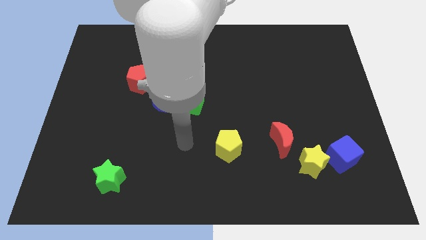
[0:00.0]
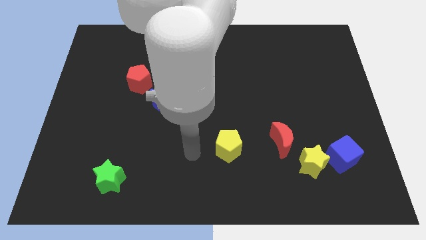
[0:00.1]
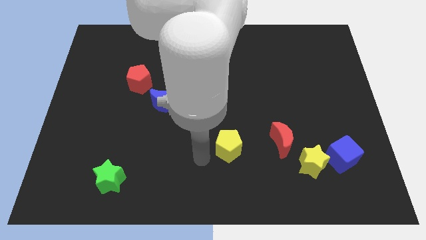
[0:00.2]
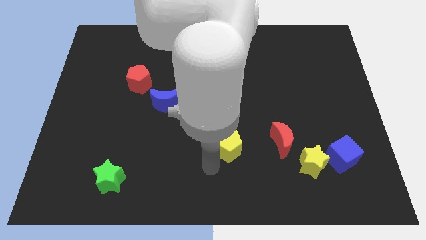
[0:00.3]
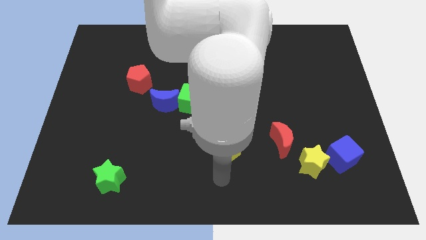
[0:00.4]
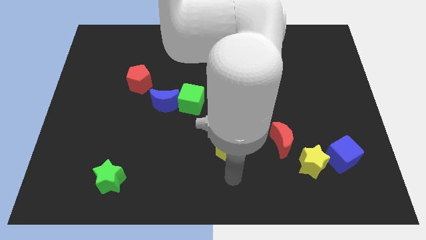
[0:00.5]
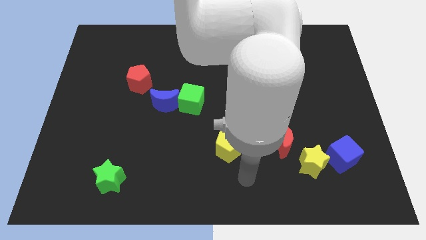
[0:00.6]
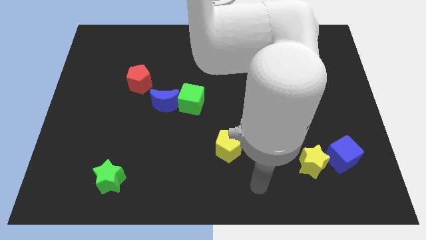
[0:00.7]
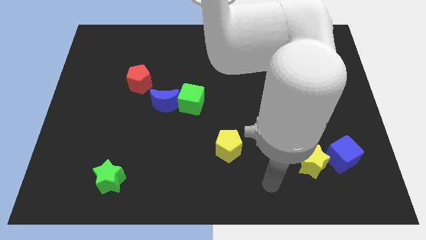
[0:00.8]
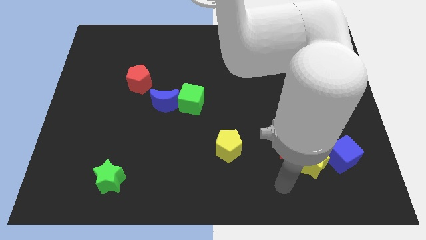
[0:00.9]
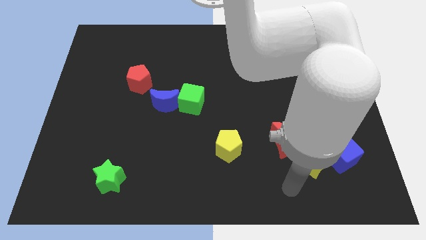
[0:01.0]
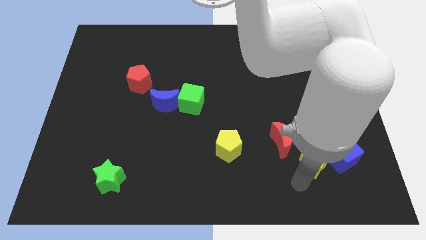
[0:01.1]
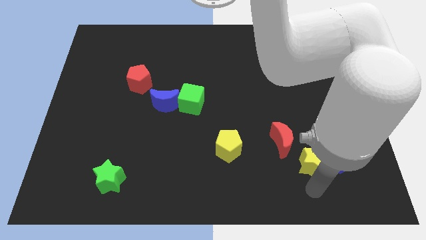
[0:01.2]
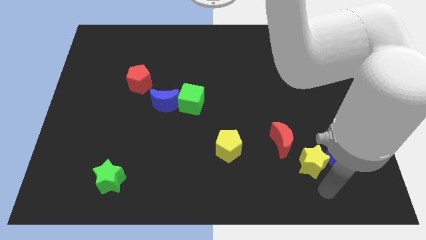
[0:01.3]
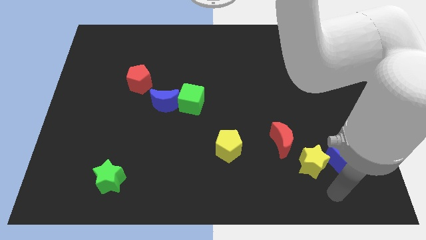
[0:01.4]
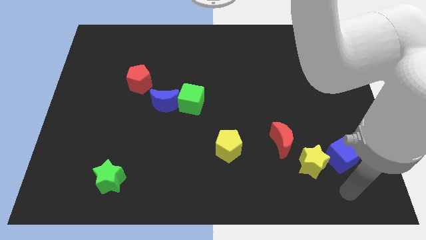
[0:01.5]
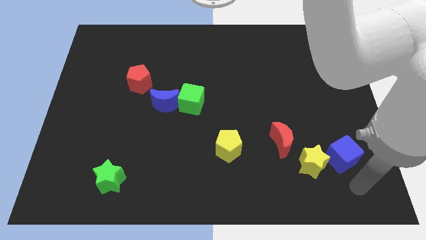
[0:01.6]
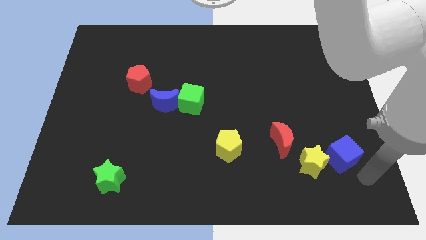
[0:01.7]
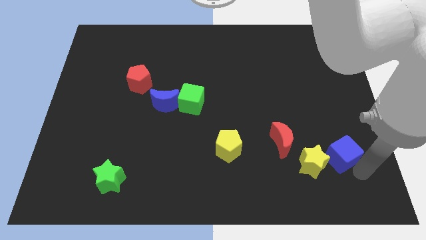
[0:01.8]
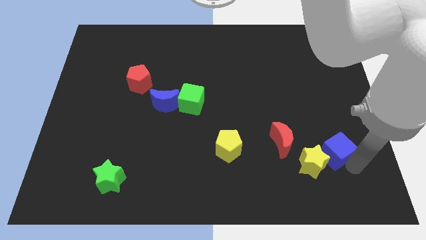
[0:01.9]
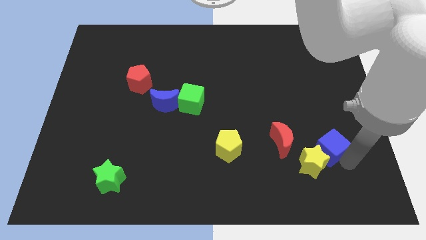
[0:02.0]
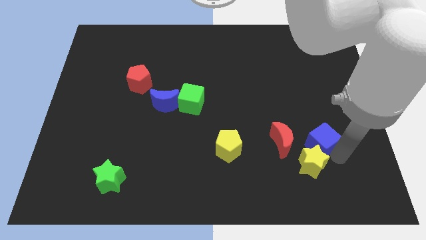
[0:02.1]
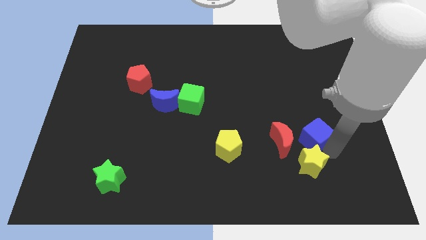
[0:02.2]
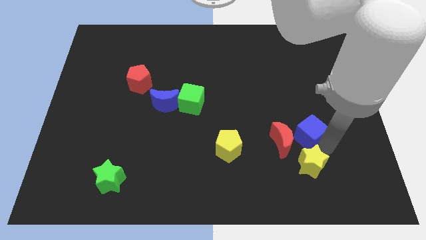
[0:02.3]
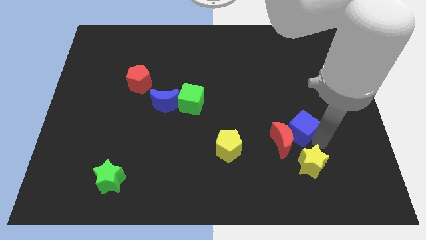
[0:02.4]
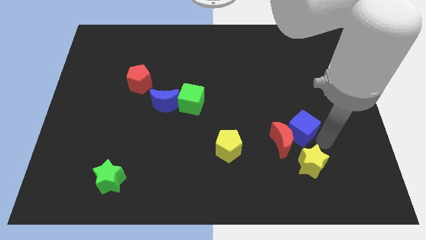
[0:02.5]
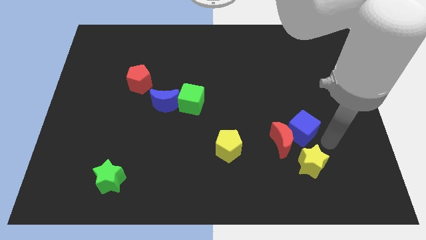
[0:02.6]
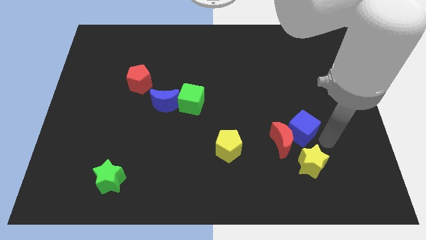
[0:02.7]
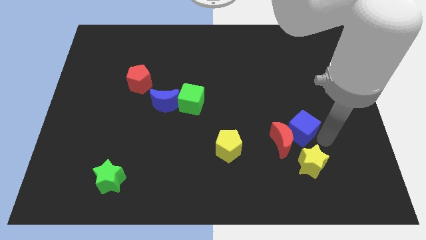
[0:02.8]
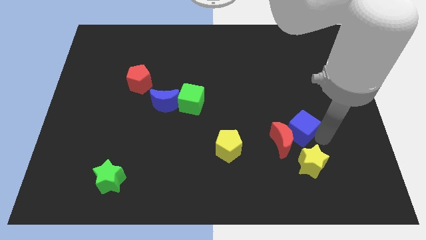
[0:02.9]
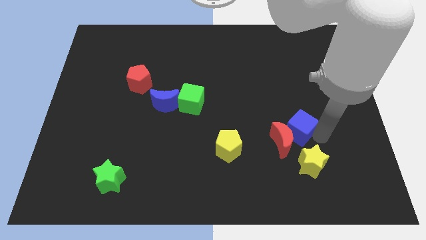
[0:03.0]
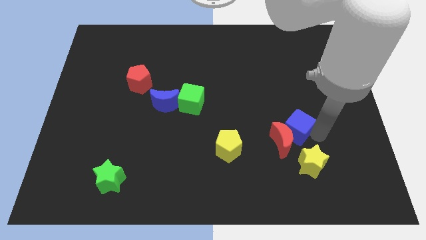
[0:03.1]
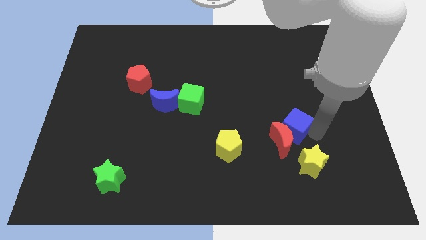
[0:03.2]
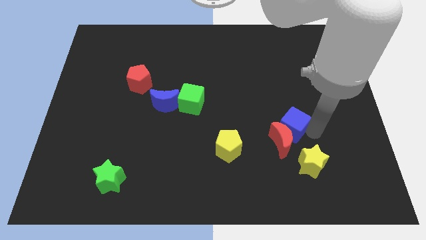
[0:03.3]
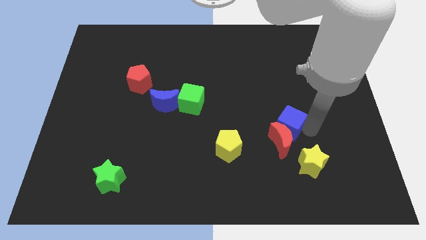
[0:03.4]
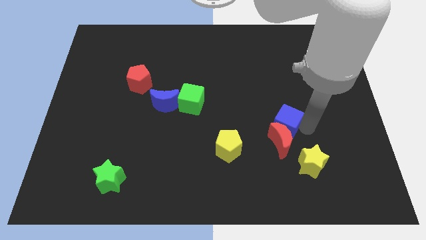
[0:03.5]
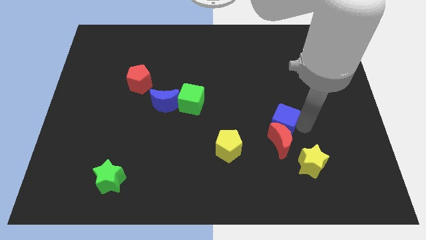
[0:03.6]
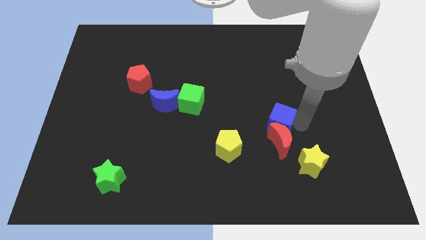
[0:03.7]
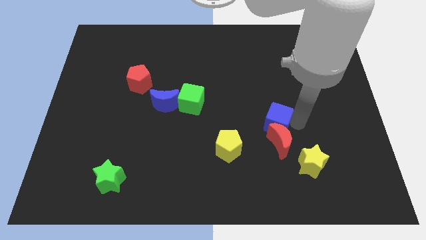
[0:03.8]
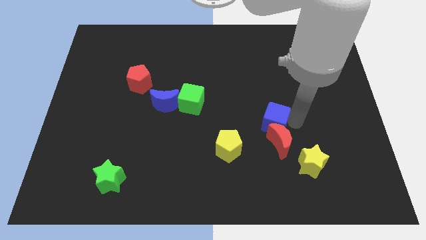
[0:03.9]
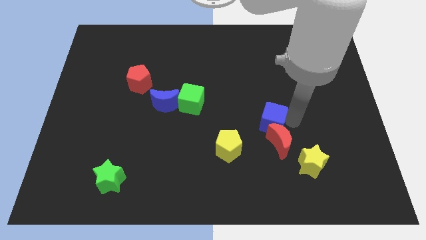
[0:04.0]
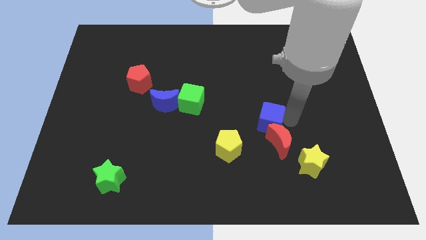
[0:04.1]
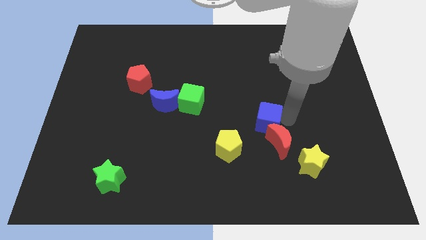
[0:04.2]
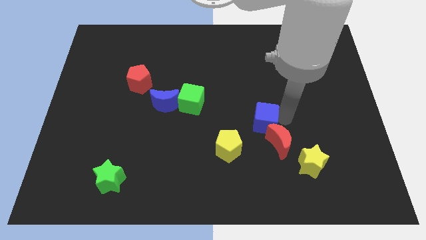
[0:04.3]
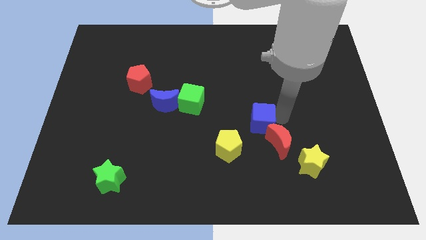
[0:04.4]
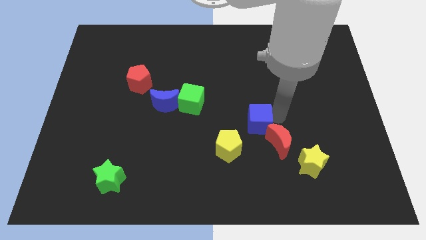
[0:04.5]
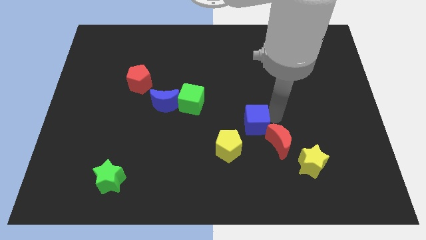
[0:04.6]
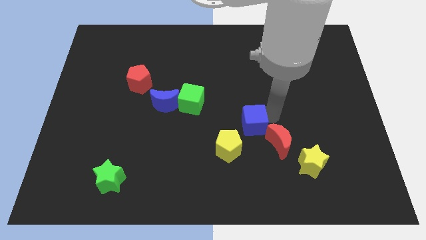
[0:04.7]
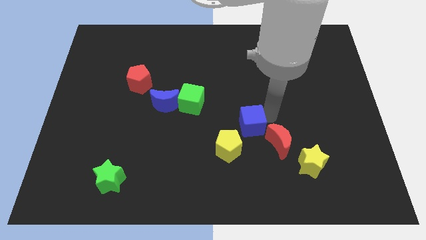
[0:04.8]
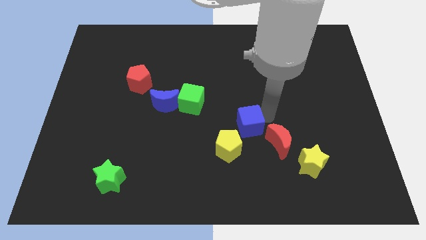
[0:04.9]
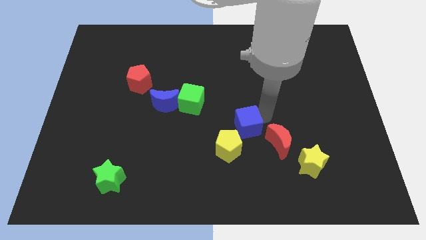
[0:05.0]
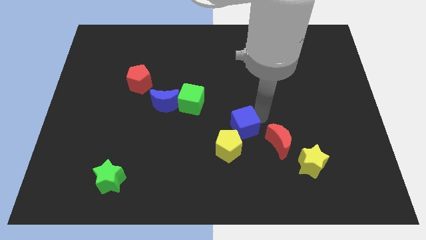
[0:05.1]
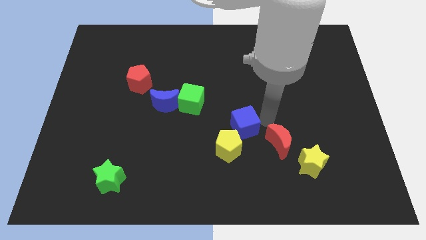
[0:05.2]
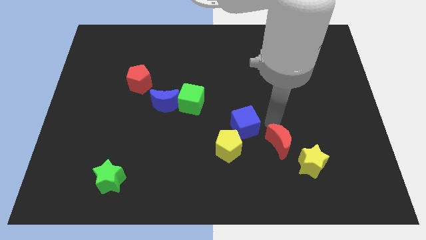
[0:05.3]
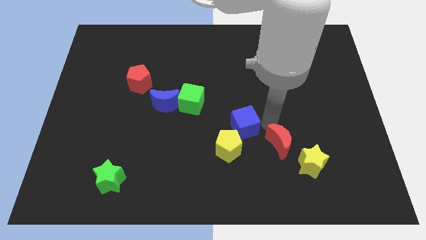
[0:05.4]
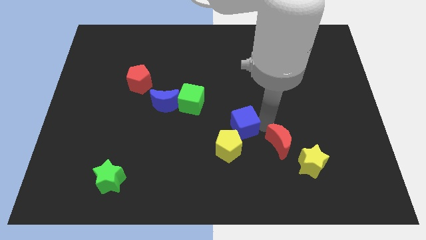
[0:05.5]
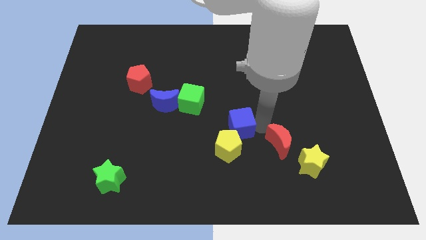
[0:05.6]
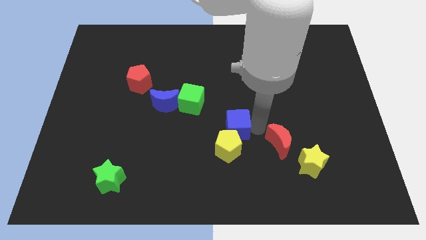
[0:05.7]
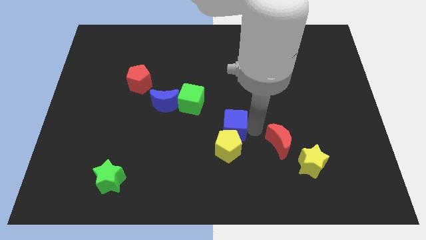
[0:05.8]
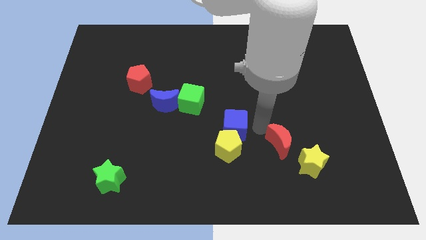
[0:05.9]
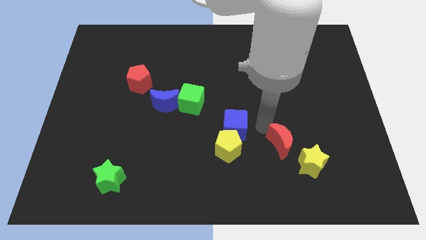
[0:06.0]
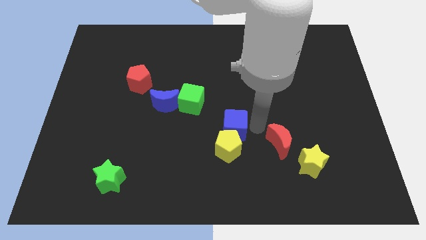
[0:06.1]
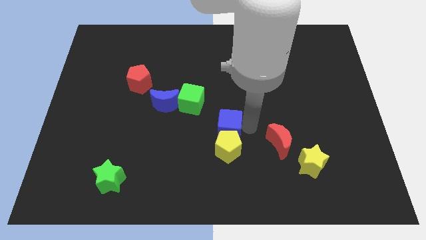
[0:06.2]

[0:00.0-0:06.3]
put the blue cube to the top left of the yellow pentagon
